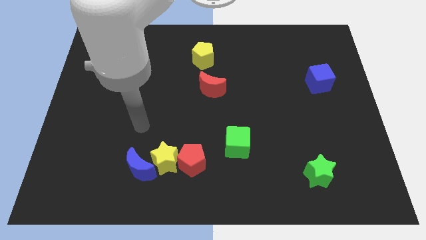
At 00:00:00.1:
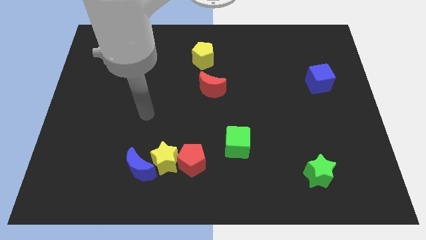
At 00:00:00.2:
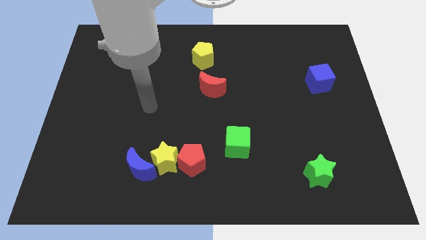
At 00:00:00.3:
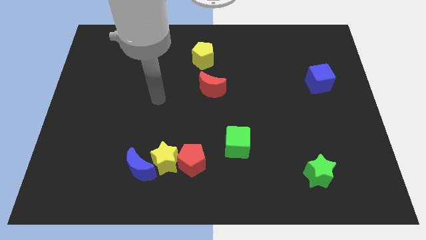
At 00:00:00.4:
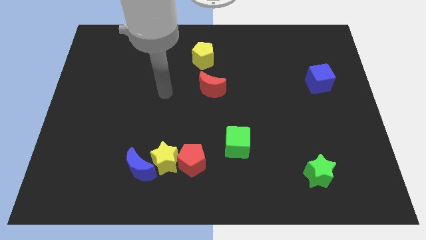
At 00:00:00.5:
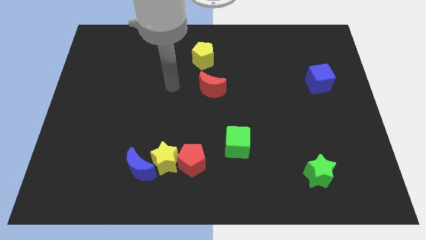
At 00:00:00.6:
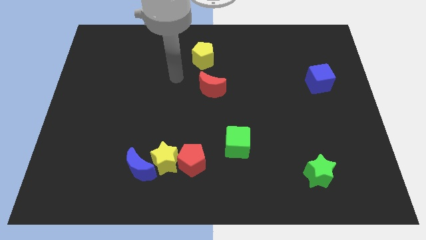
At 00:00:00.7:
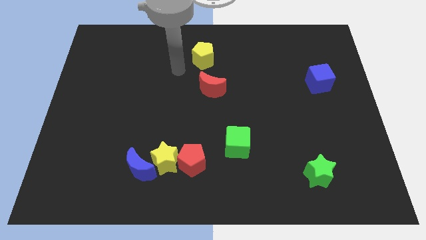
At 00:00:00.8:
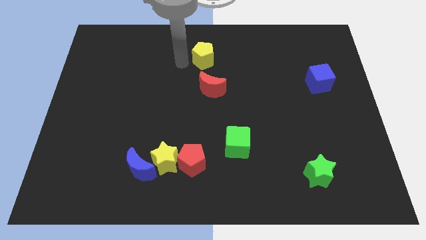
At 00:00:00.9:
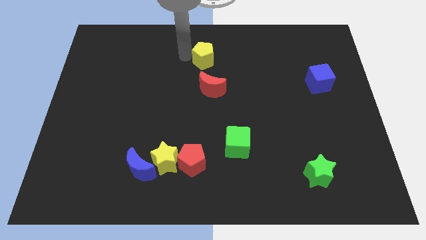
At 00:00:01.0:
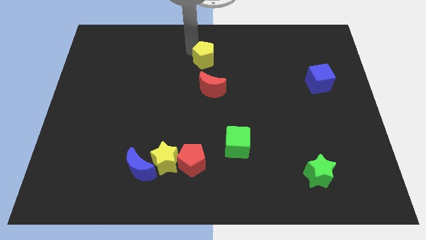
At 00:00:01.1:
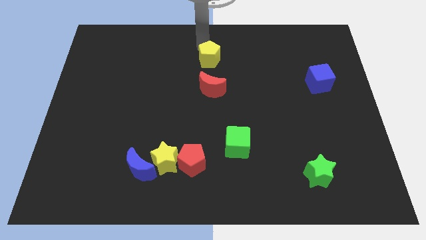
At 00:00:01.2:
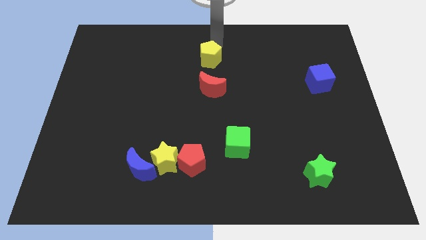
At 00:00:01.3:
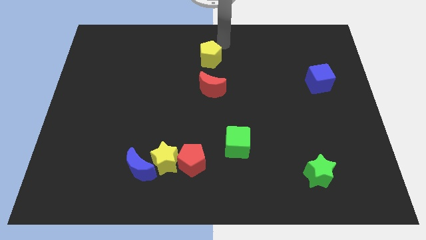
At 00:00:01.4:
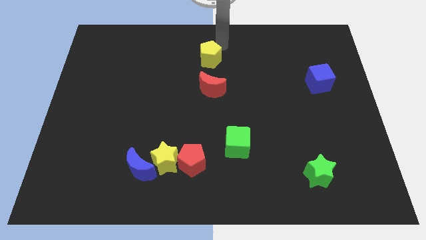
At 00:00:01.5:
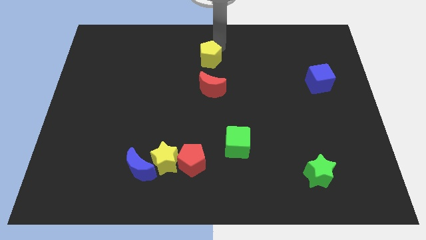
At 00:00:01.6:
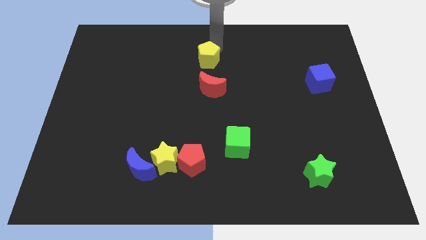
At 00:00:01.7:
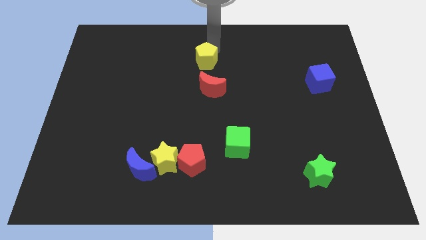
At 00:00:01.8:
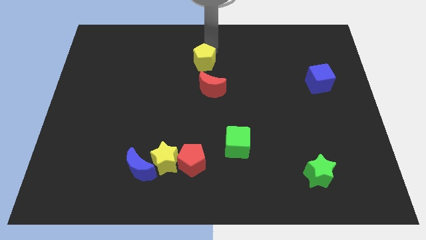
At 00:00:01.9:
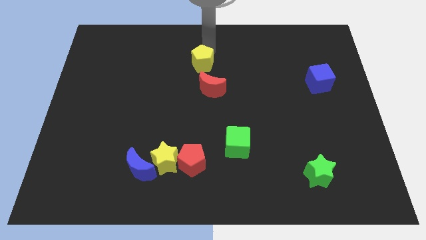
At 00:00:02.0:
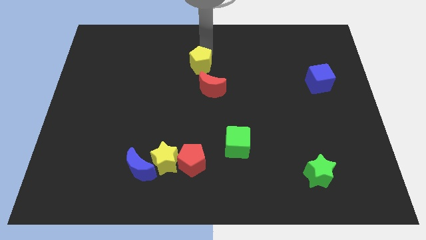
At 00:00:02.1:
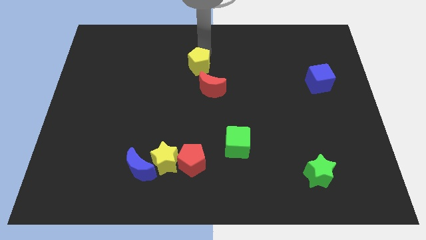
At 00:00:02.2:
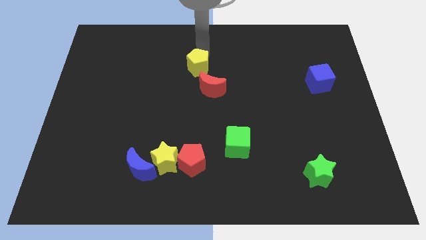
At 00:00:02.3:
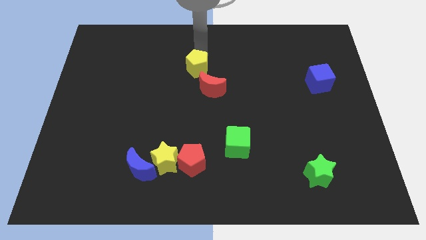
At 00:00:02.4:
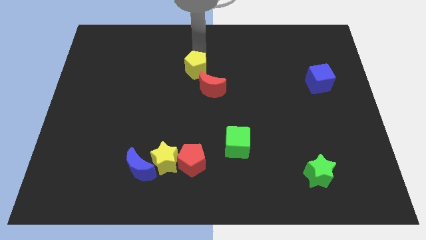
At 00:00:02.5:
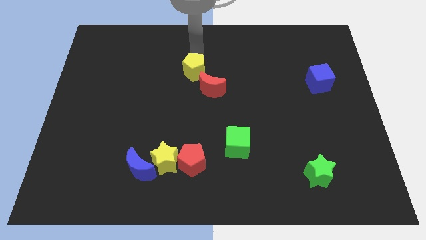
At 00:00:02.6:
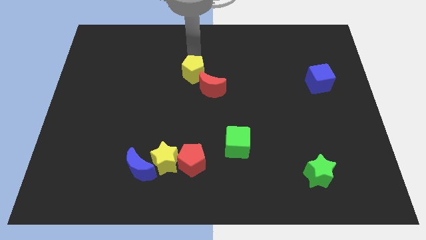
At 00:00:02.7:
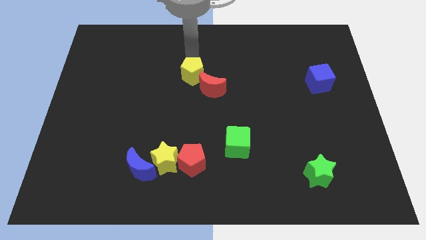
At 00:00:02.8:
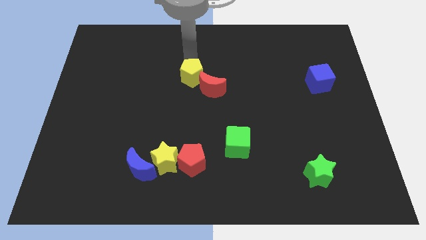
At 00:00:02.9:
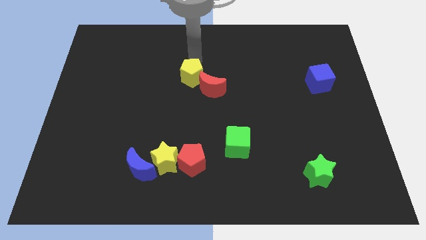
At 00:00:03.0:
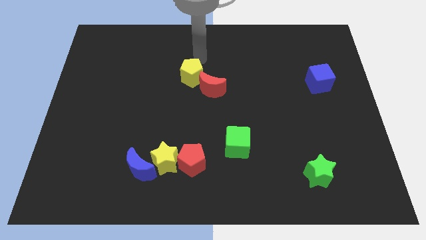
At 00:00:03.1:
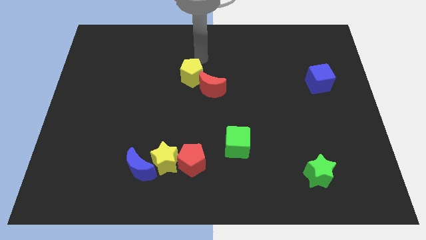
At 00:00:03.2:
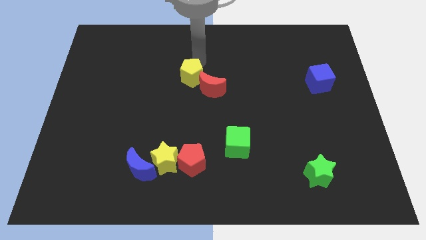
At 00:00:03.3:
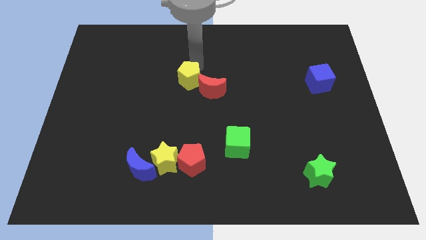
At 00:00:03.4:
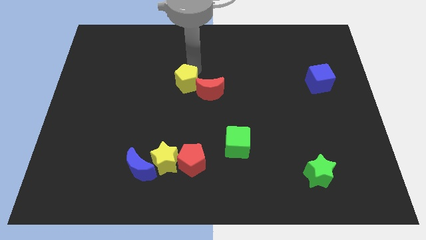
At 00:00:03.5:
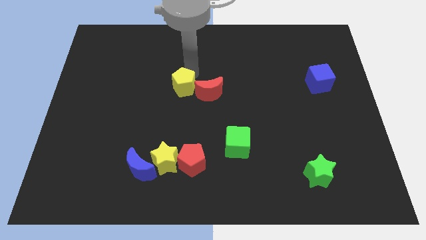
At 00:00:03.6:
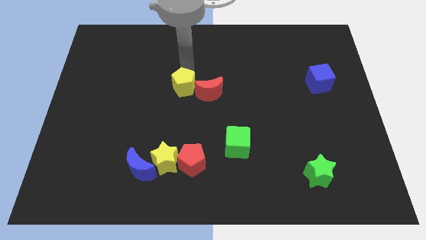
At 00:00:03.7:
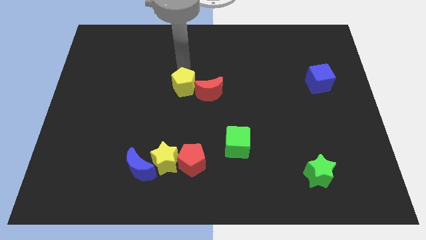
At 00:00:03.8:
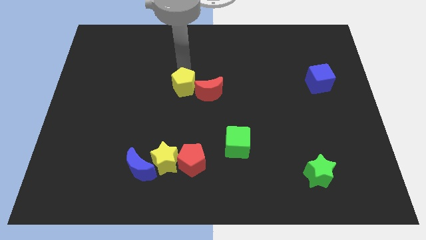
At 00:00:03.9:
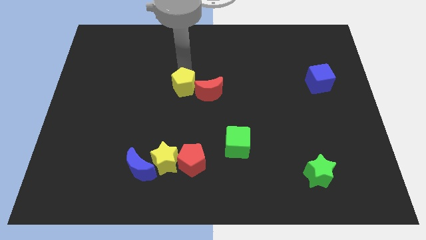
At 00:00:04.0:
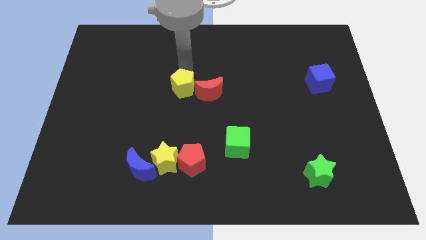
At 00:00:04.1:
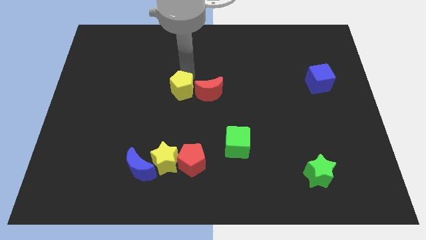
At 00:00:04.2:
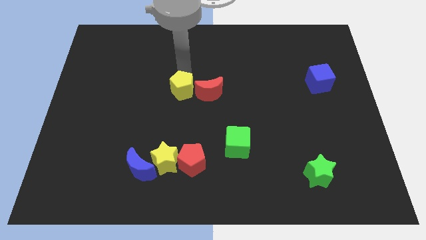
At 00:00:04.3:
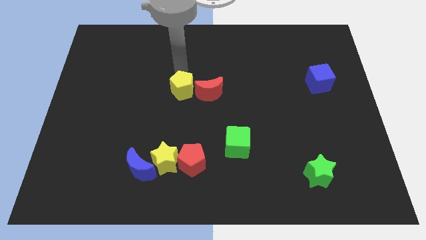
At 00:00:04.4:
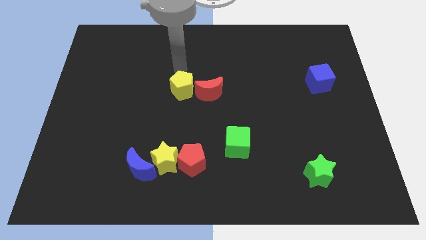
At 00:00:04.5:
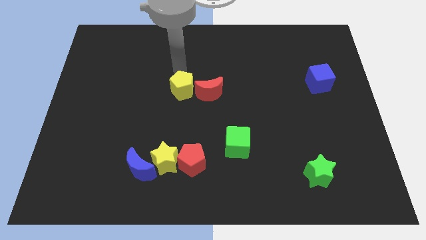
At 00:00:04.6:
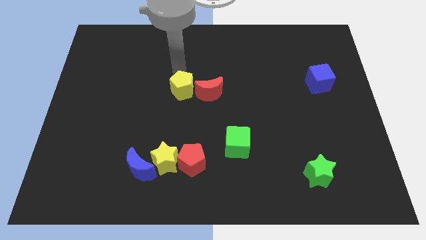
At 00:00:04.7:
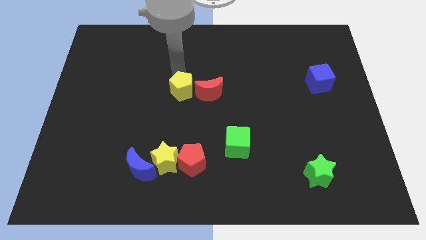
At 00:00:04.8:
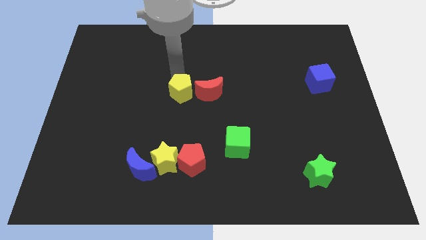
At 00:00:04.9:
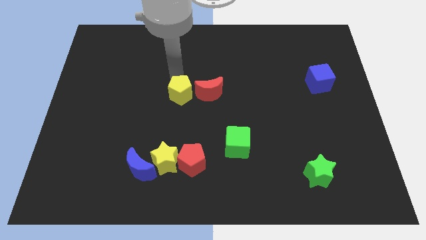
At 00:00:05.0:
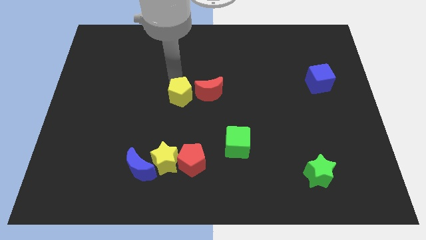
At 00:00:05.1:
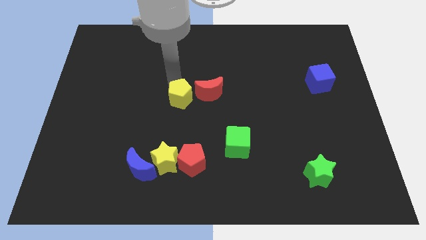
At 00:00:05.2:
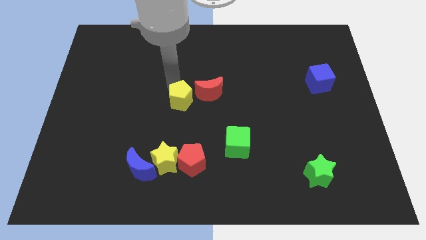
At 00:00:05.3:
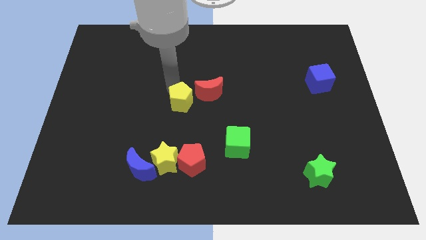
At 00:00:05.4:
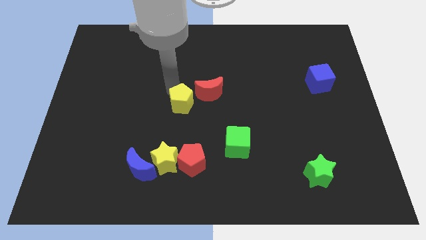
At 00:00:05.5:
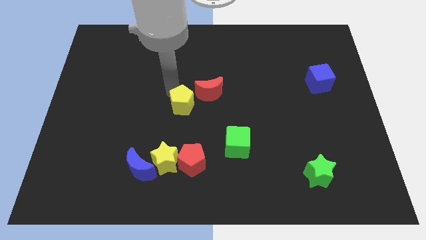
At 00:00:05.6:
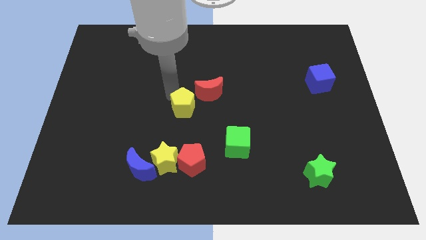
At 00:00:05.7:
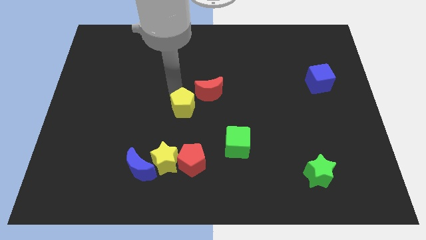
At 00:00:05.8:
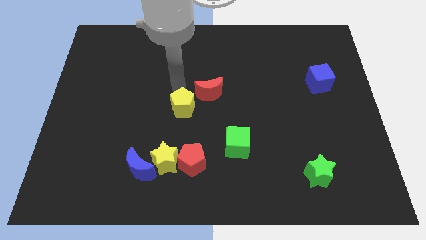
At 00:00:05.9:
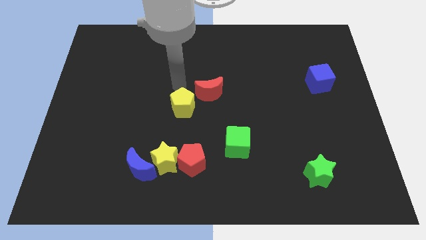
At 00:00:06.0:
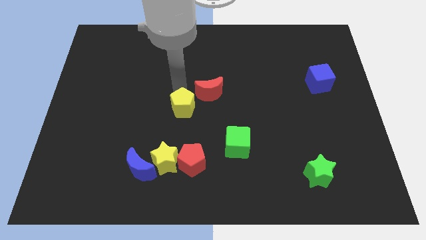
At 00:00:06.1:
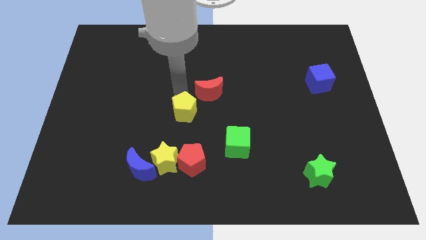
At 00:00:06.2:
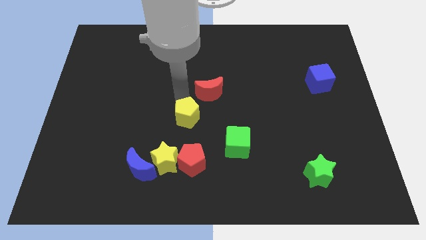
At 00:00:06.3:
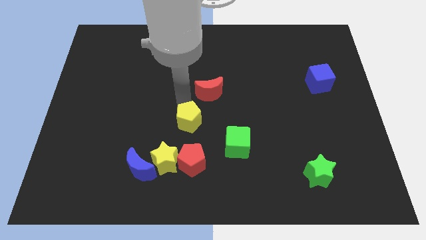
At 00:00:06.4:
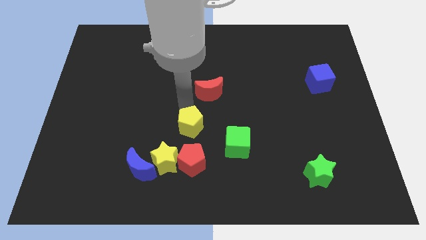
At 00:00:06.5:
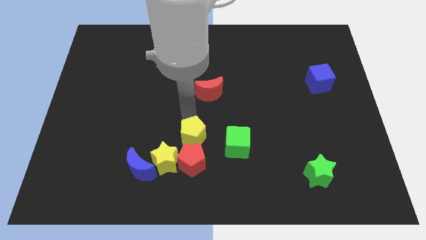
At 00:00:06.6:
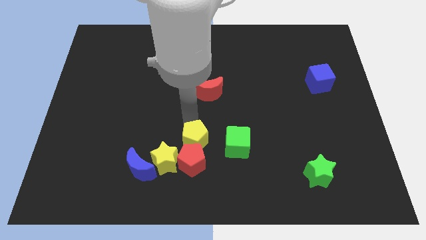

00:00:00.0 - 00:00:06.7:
put the yellow pentagon towards the red pentagon
